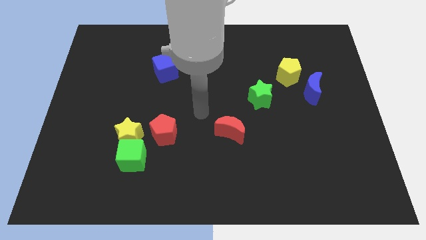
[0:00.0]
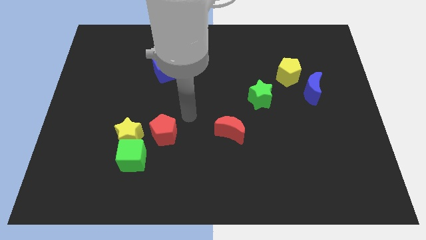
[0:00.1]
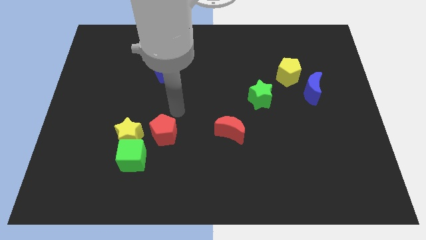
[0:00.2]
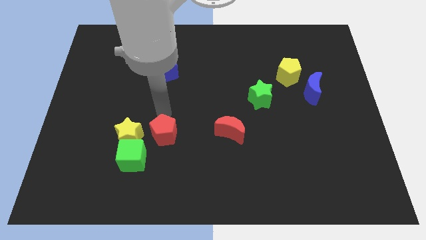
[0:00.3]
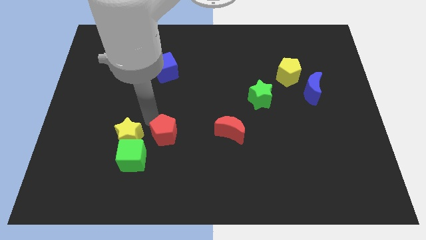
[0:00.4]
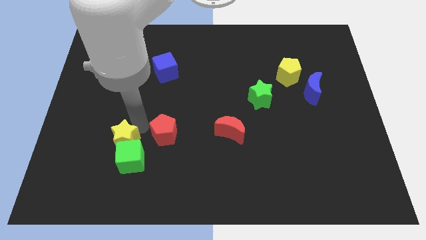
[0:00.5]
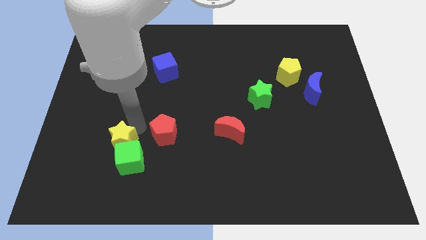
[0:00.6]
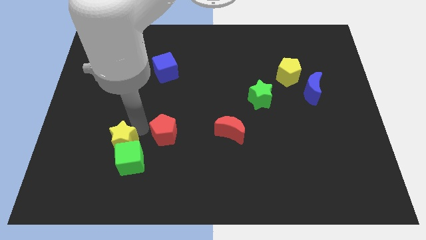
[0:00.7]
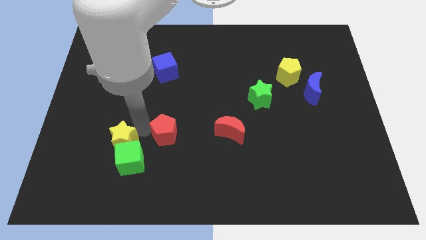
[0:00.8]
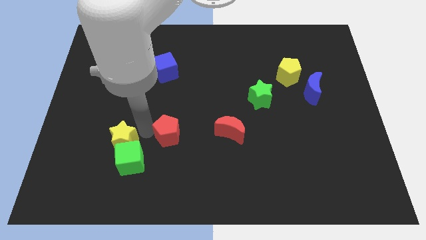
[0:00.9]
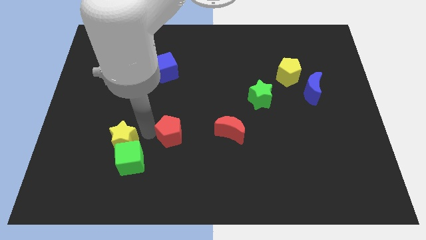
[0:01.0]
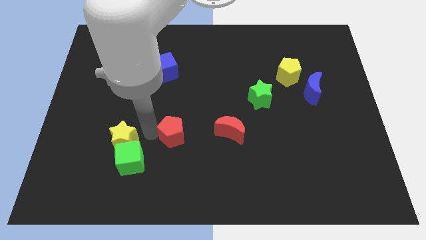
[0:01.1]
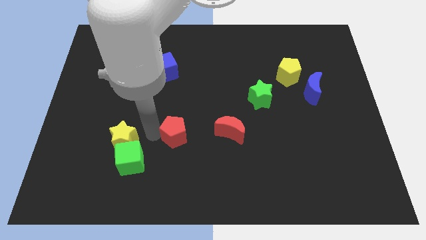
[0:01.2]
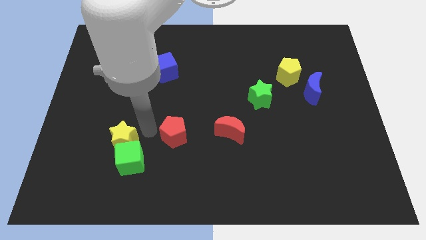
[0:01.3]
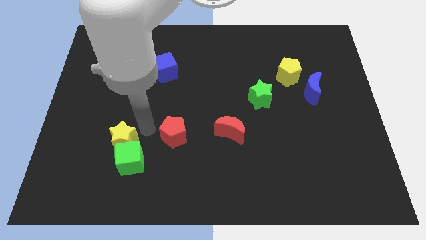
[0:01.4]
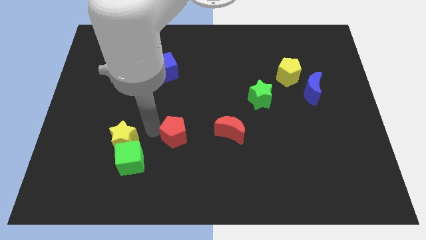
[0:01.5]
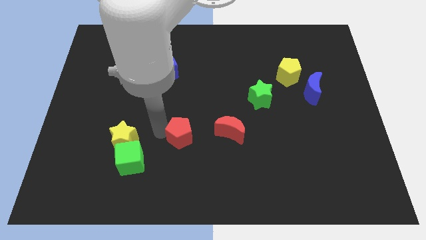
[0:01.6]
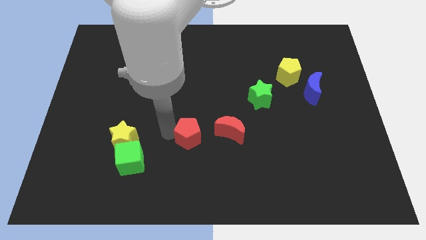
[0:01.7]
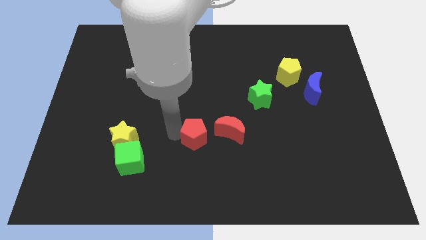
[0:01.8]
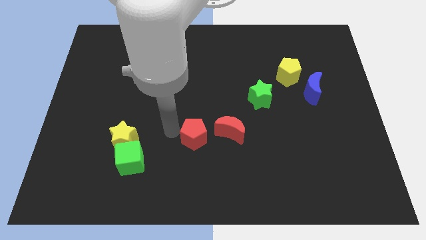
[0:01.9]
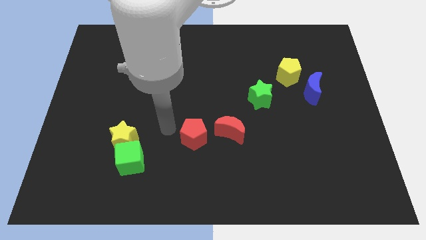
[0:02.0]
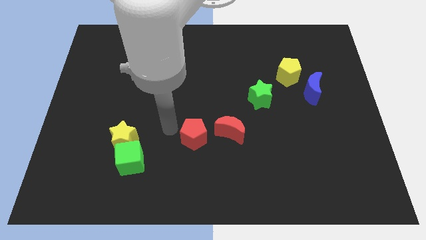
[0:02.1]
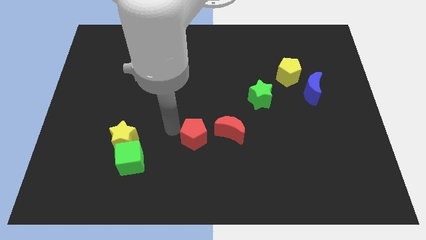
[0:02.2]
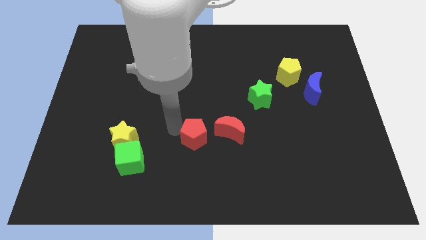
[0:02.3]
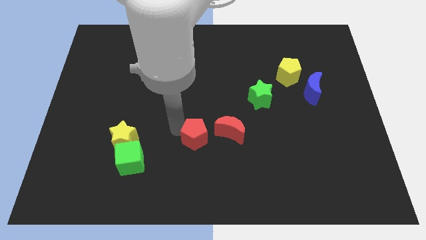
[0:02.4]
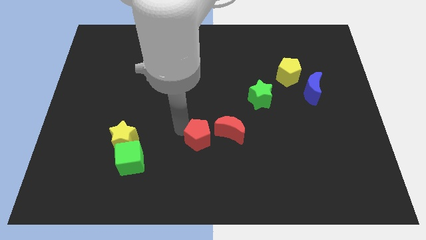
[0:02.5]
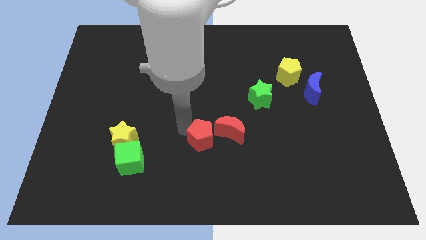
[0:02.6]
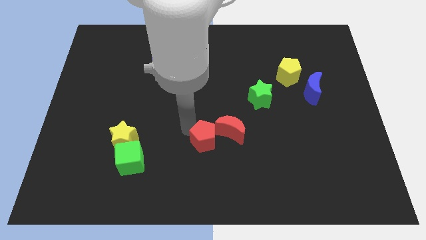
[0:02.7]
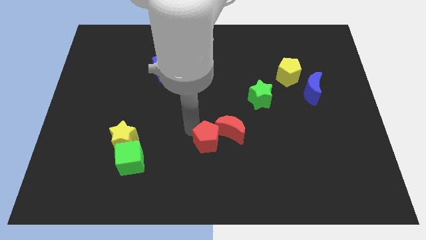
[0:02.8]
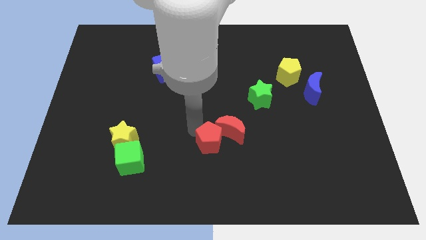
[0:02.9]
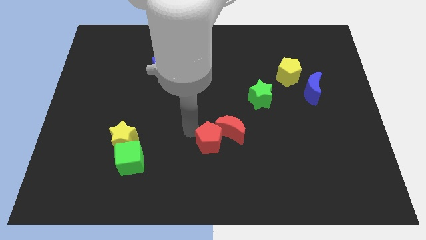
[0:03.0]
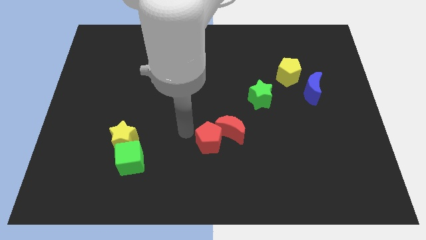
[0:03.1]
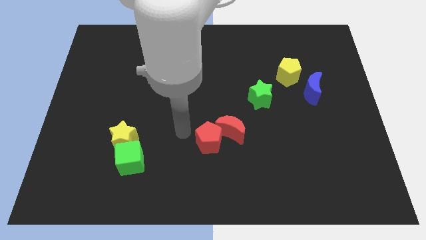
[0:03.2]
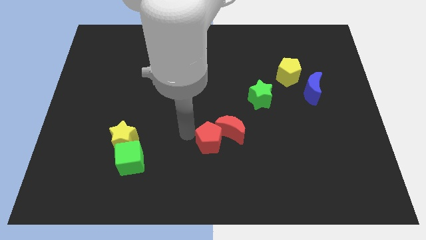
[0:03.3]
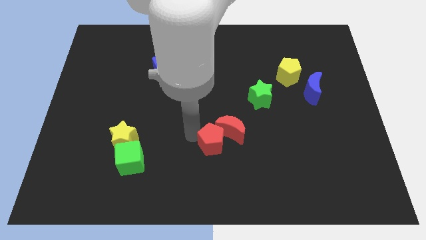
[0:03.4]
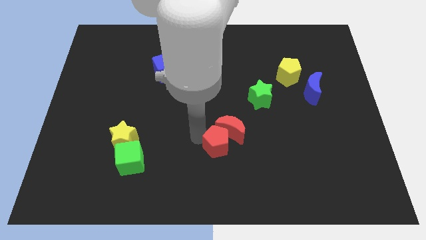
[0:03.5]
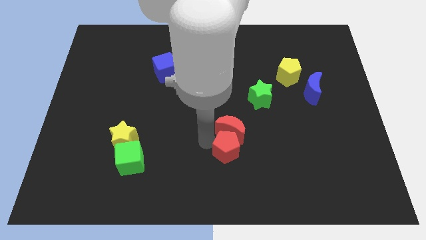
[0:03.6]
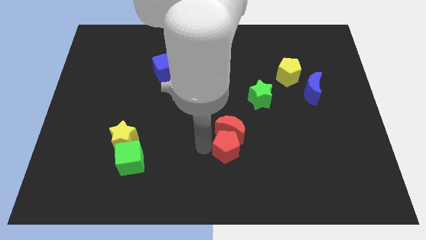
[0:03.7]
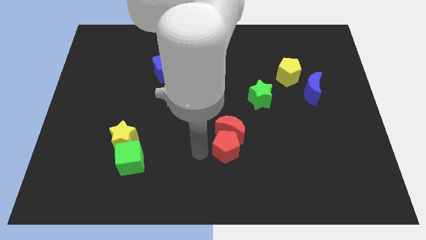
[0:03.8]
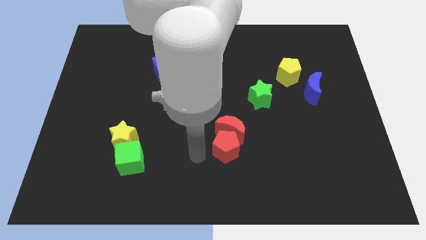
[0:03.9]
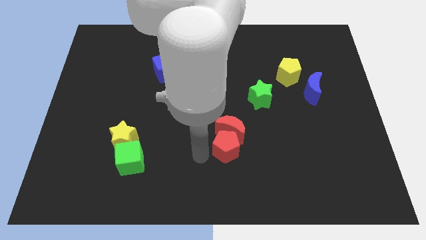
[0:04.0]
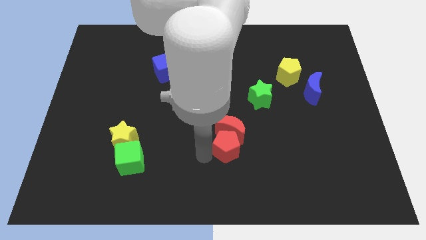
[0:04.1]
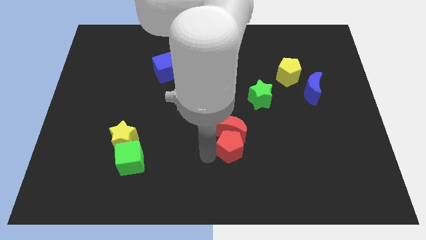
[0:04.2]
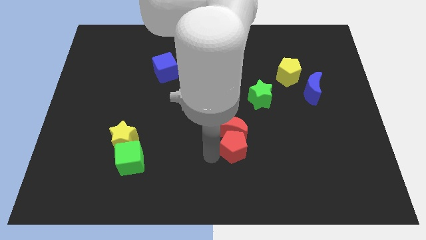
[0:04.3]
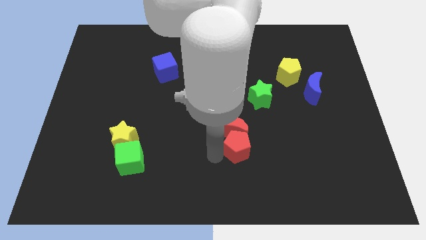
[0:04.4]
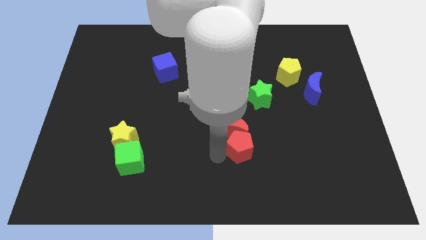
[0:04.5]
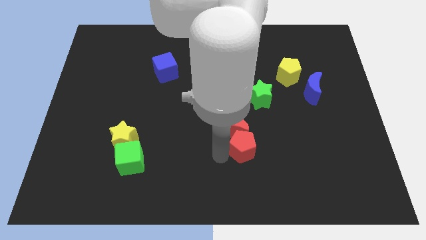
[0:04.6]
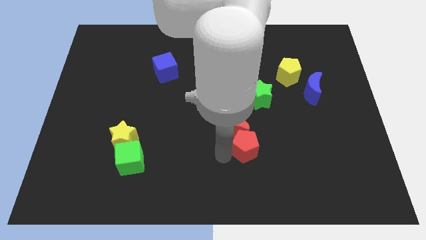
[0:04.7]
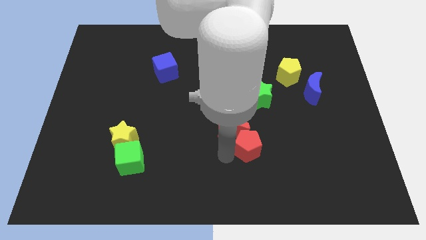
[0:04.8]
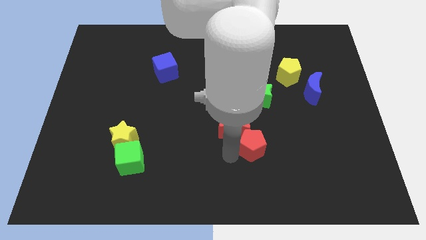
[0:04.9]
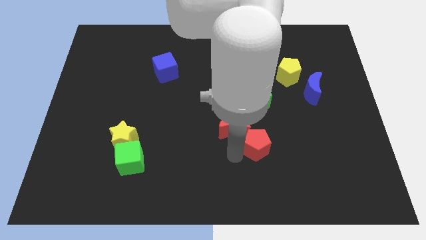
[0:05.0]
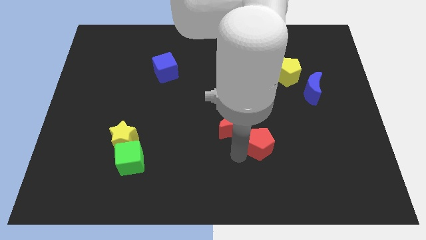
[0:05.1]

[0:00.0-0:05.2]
slide the red pentagon right

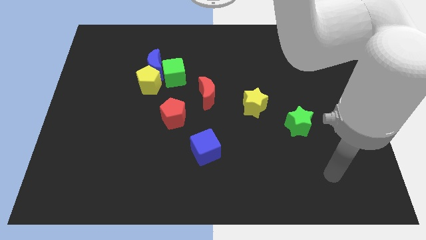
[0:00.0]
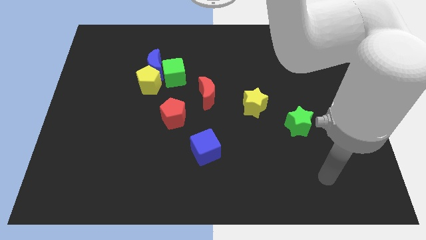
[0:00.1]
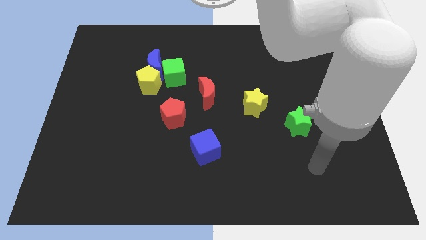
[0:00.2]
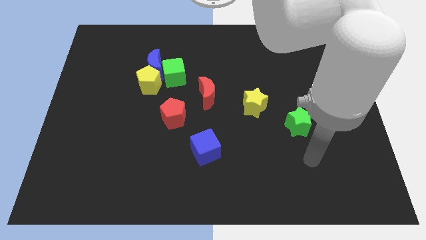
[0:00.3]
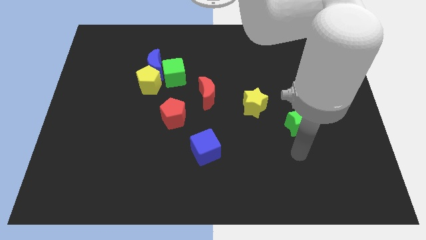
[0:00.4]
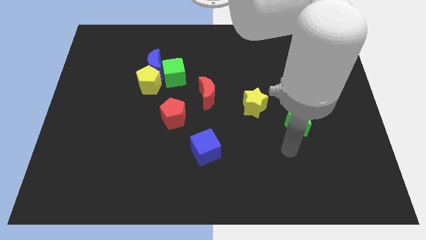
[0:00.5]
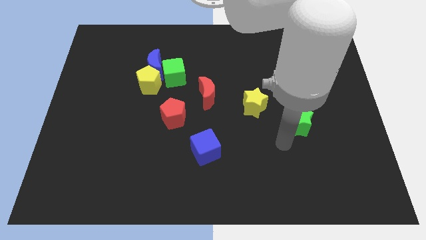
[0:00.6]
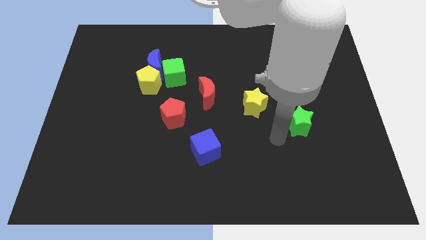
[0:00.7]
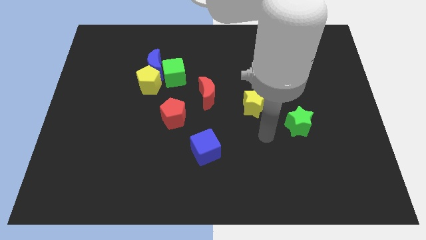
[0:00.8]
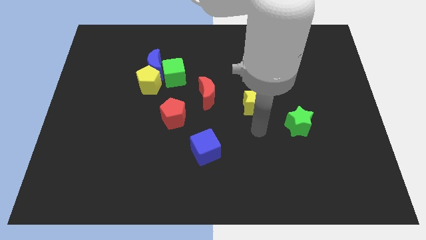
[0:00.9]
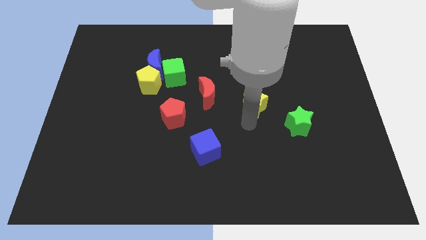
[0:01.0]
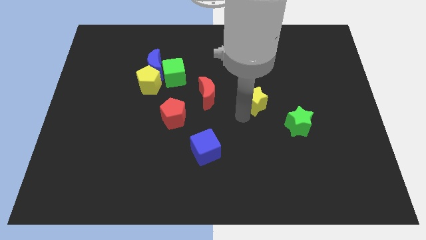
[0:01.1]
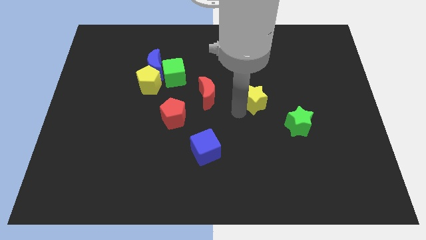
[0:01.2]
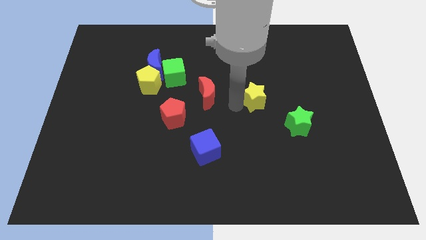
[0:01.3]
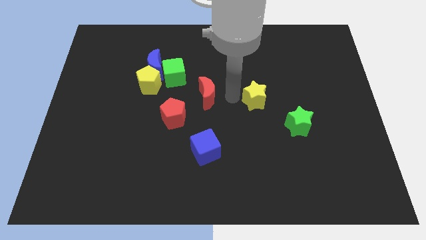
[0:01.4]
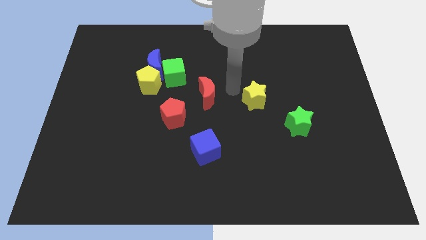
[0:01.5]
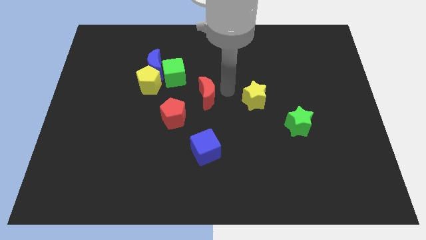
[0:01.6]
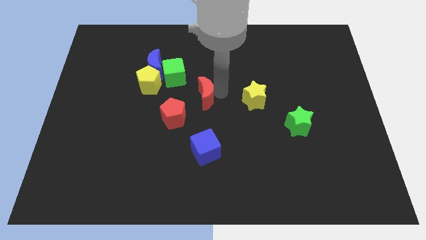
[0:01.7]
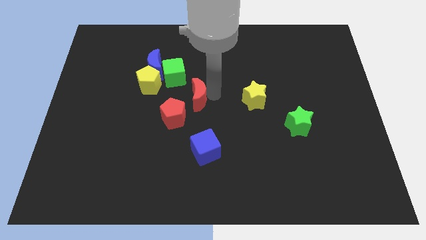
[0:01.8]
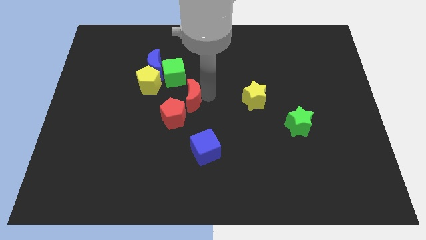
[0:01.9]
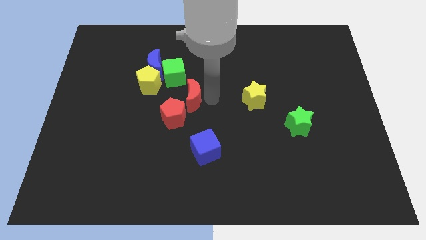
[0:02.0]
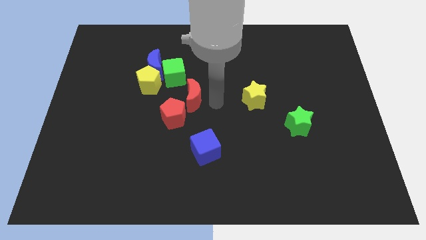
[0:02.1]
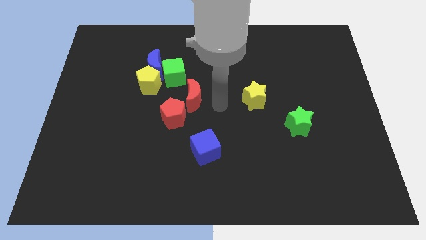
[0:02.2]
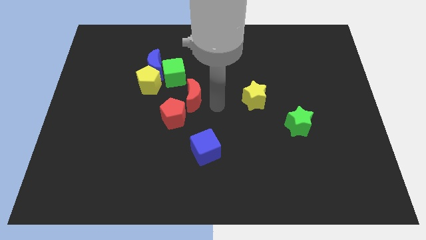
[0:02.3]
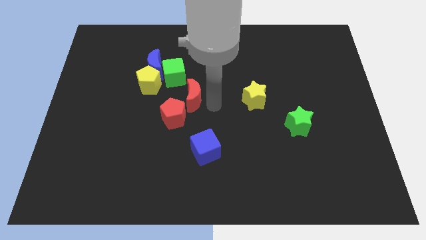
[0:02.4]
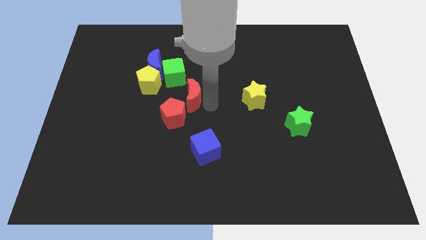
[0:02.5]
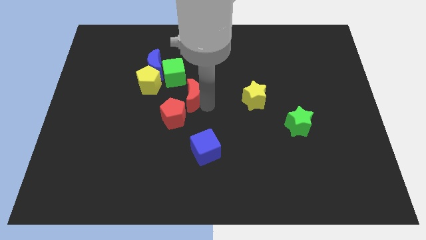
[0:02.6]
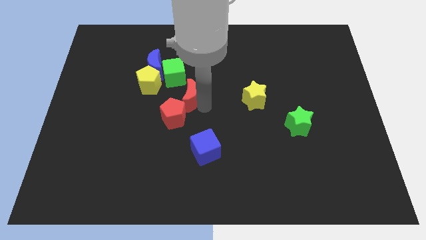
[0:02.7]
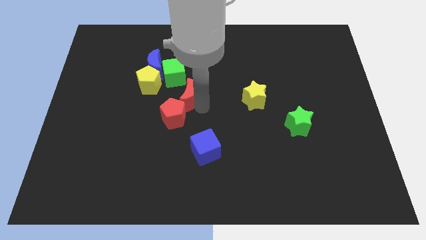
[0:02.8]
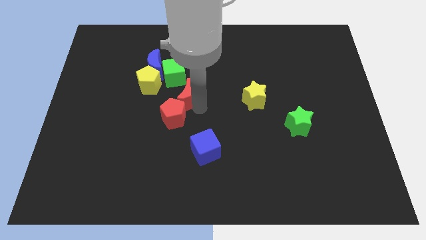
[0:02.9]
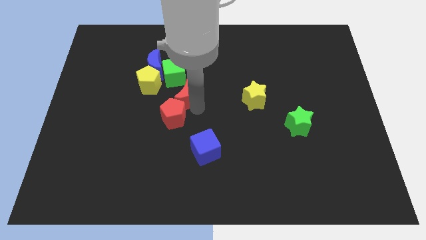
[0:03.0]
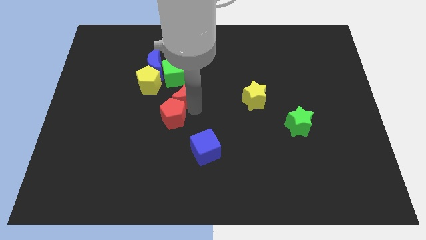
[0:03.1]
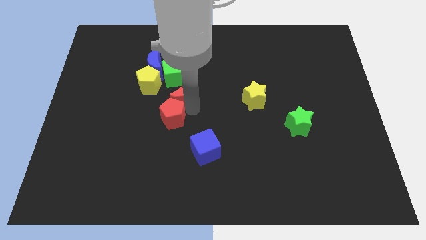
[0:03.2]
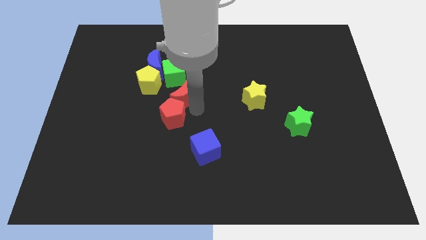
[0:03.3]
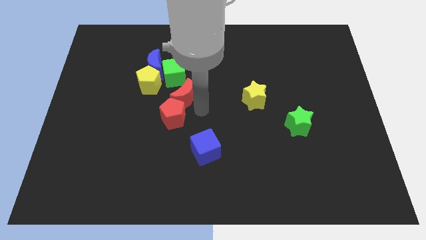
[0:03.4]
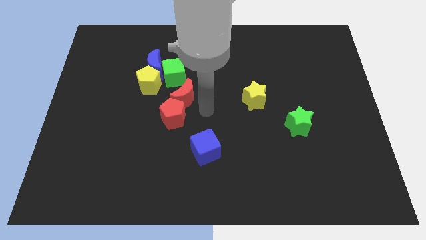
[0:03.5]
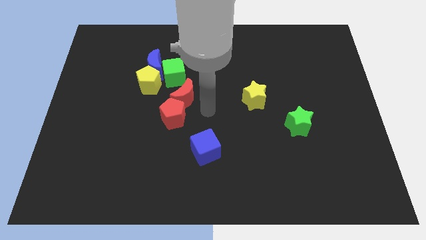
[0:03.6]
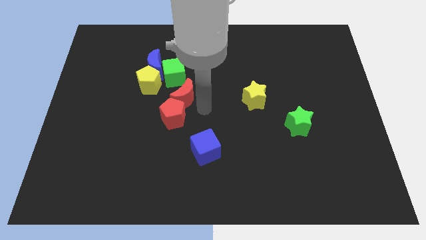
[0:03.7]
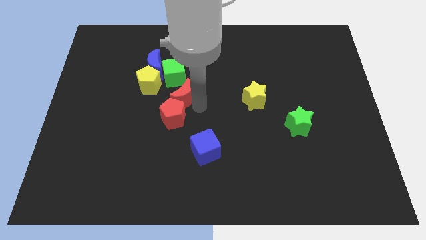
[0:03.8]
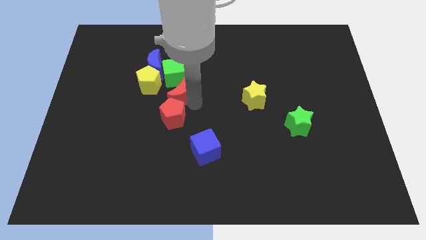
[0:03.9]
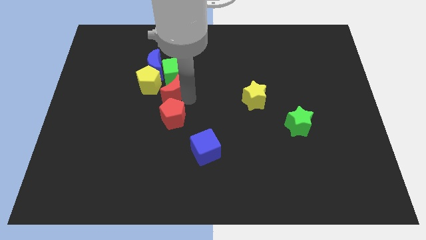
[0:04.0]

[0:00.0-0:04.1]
slide the red moon a little to the left
